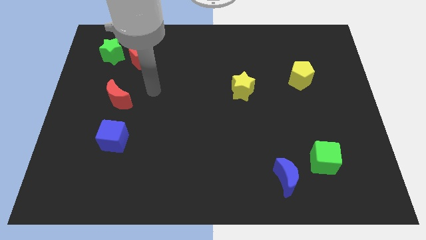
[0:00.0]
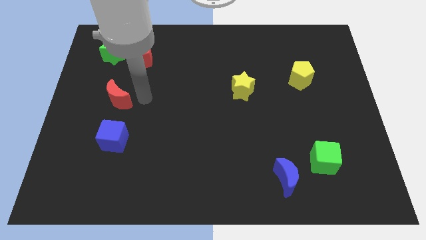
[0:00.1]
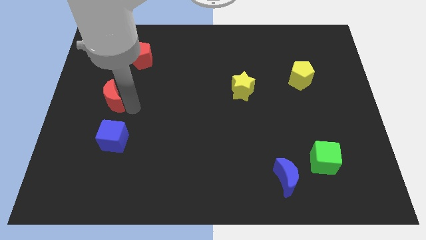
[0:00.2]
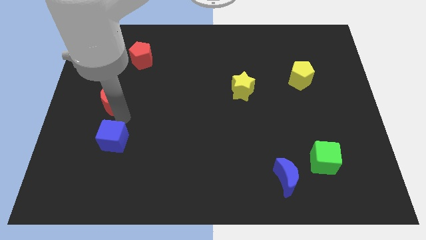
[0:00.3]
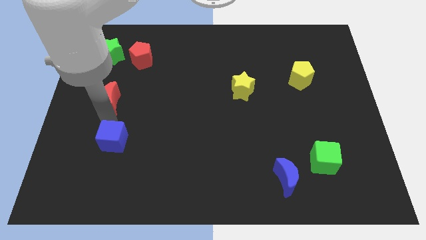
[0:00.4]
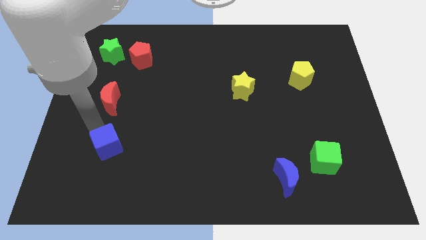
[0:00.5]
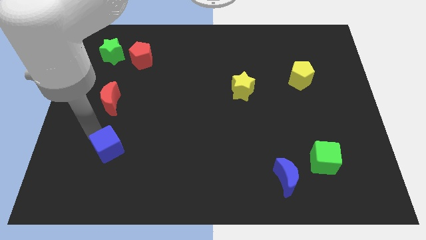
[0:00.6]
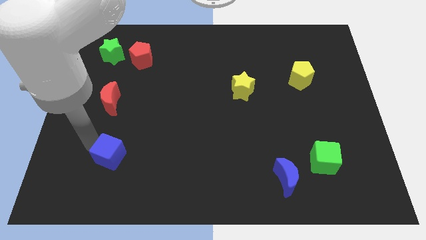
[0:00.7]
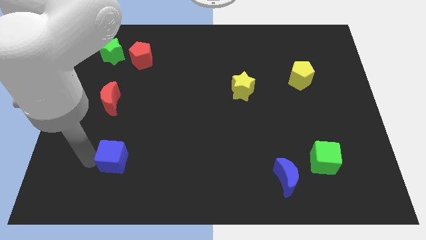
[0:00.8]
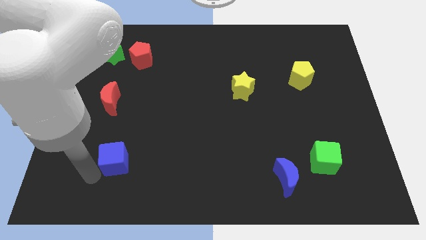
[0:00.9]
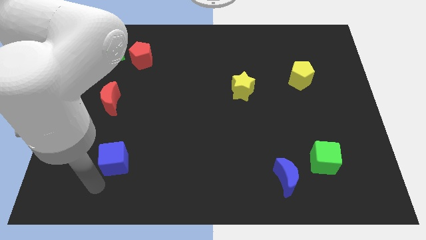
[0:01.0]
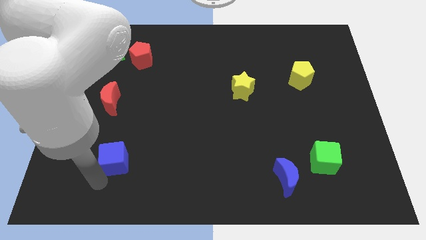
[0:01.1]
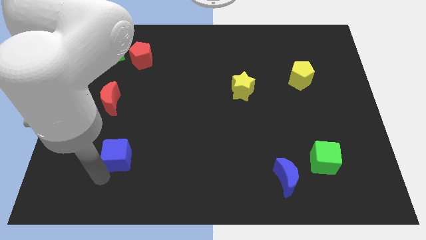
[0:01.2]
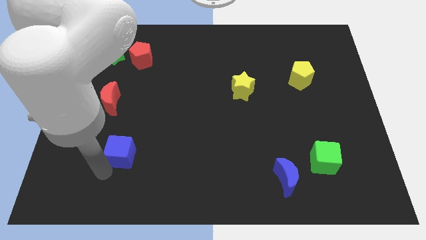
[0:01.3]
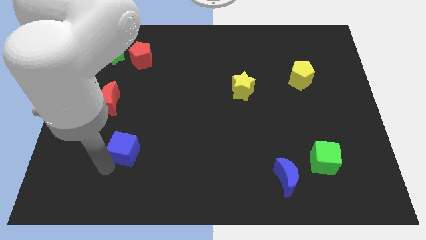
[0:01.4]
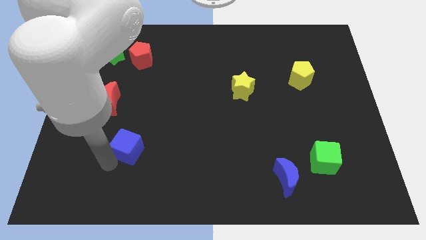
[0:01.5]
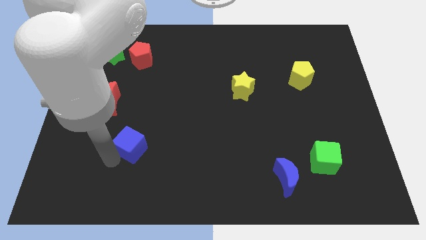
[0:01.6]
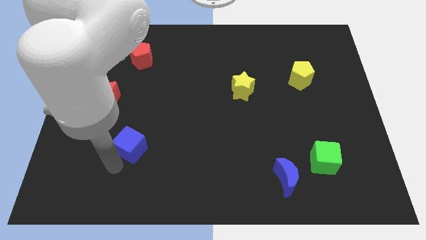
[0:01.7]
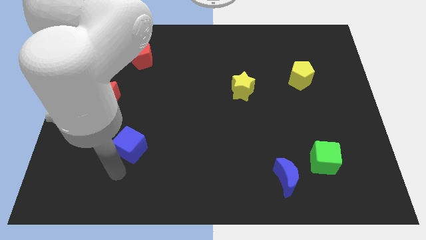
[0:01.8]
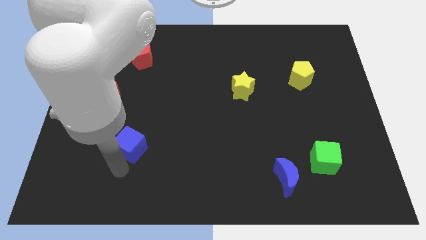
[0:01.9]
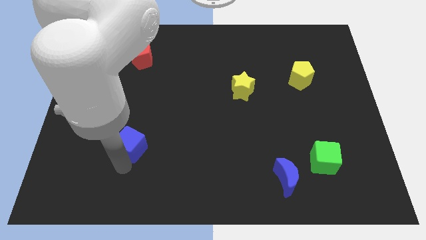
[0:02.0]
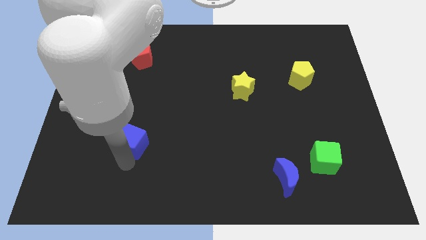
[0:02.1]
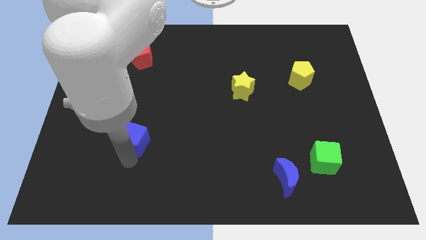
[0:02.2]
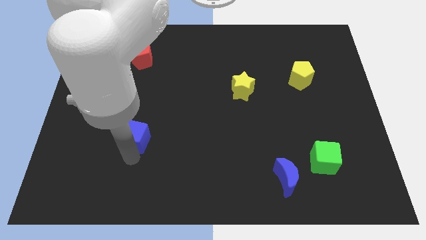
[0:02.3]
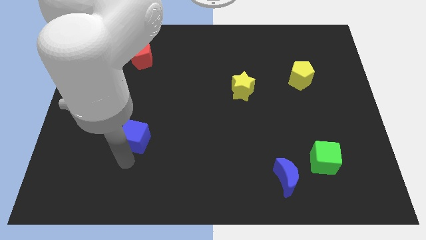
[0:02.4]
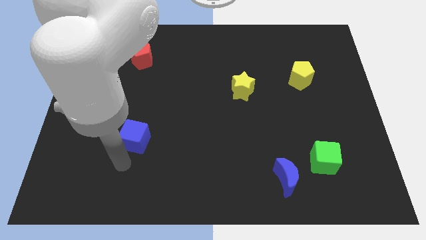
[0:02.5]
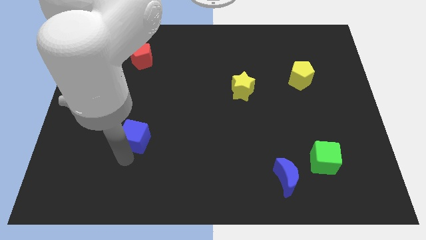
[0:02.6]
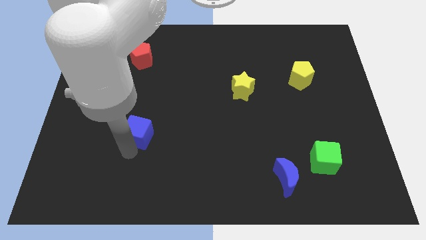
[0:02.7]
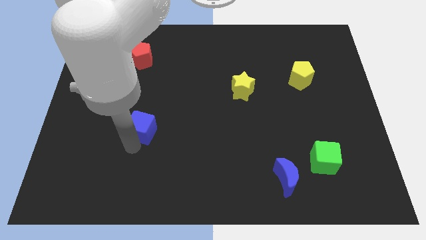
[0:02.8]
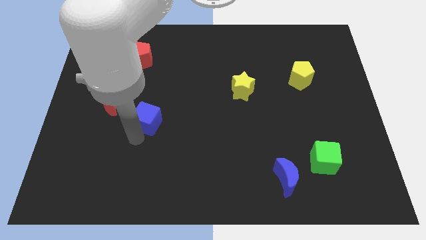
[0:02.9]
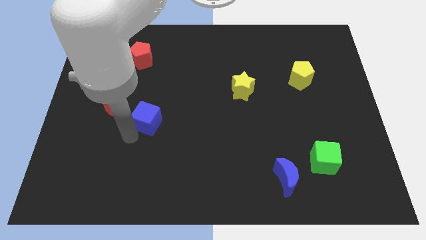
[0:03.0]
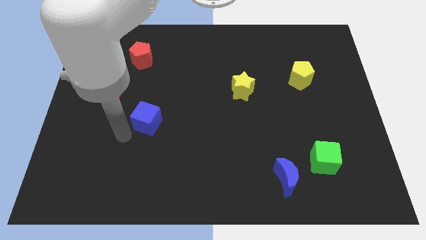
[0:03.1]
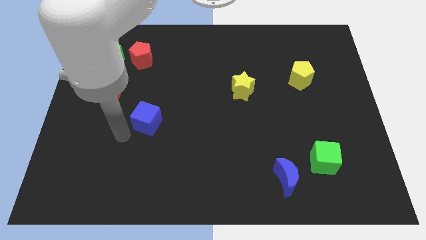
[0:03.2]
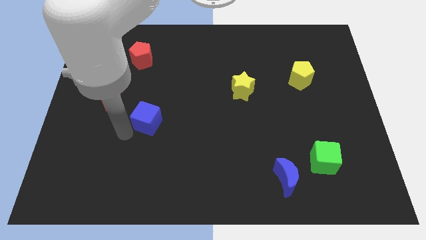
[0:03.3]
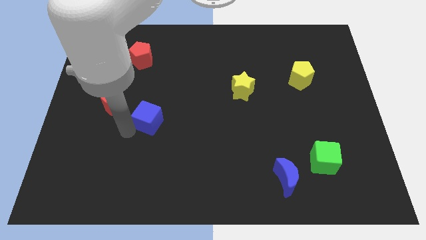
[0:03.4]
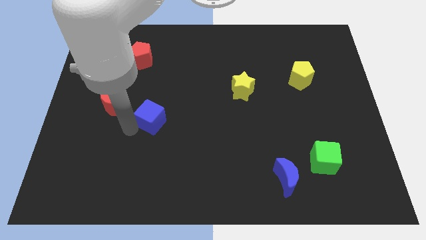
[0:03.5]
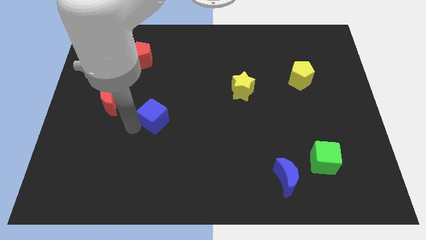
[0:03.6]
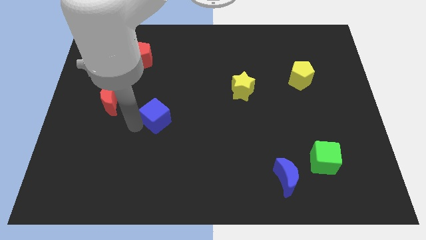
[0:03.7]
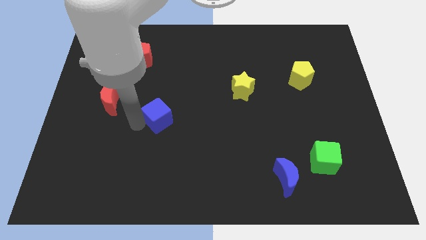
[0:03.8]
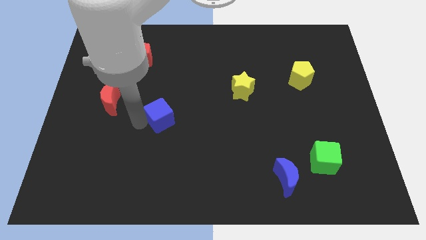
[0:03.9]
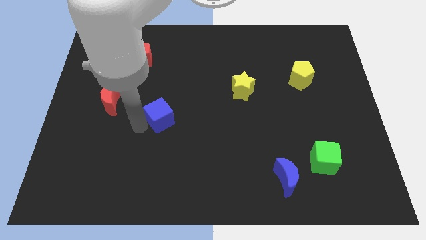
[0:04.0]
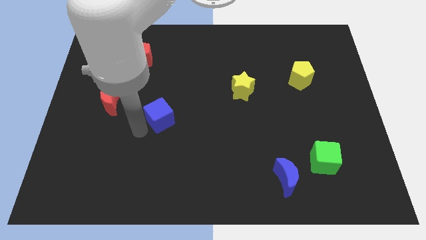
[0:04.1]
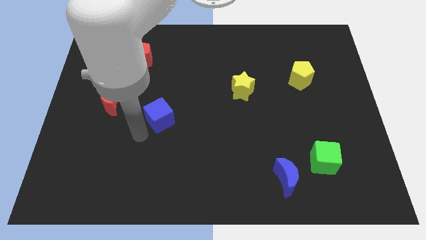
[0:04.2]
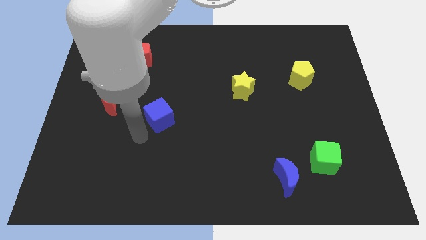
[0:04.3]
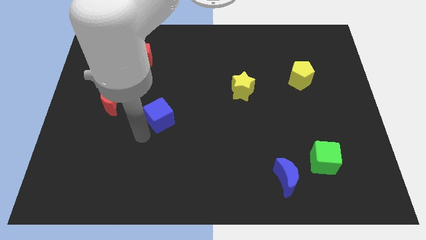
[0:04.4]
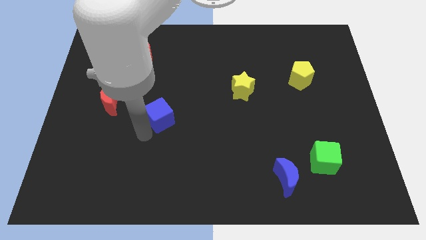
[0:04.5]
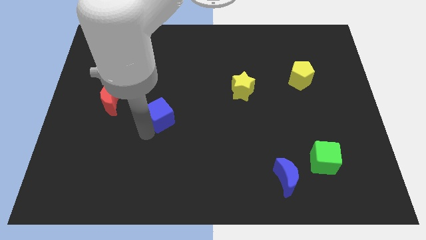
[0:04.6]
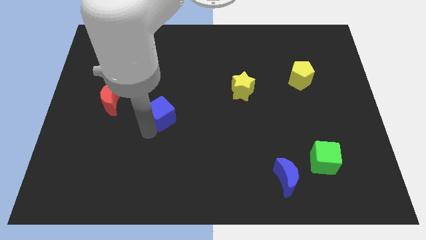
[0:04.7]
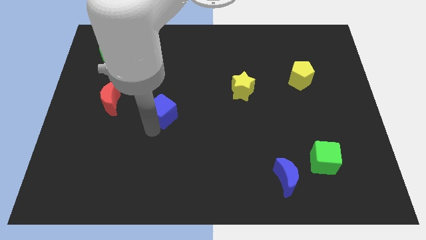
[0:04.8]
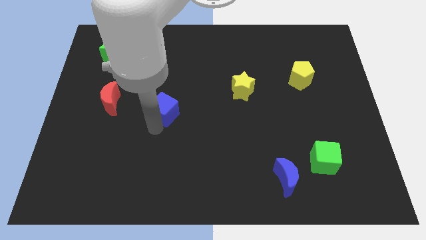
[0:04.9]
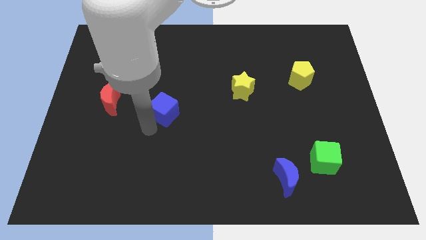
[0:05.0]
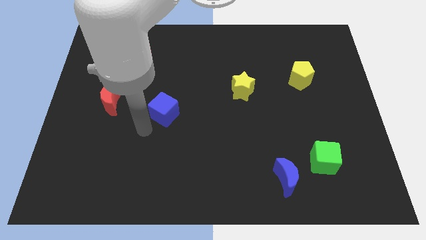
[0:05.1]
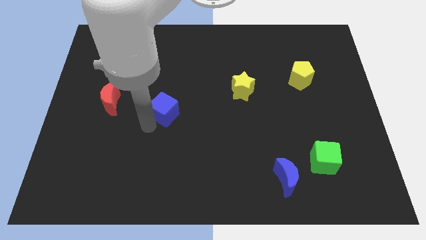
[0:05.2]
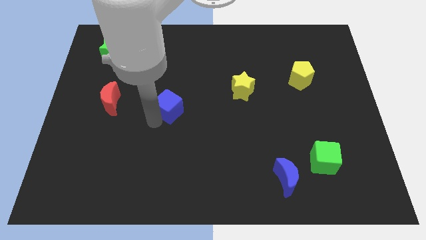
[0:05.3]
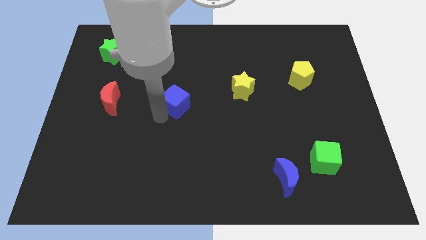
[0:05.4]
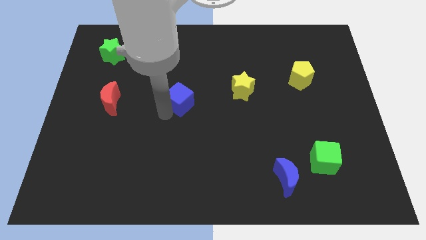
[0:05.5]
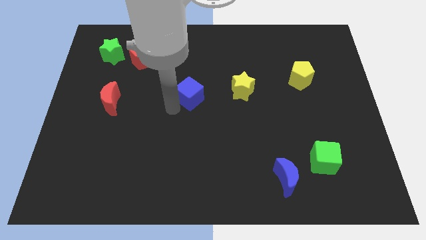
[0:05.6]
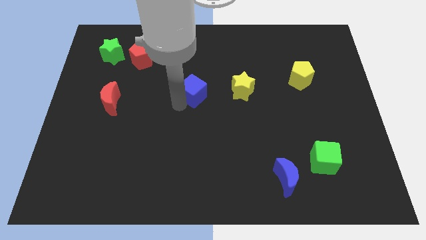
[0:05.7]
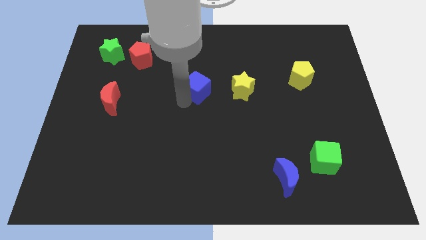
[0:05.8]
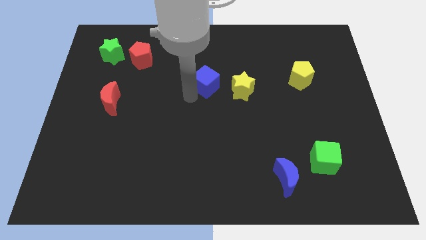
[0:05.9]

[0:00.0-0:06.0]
push the blue cube diagonally up and to the left of the yellow star

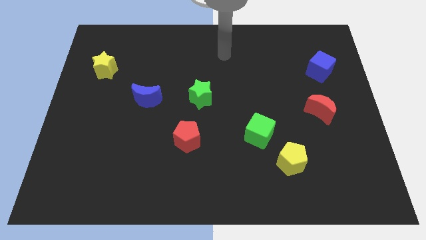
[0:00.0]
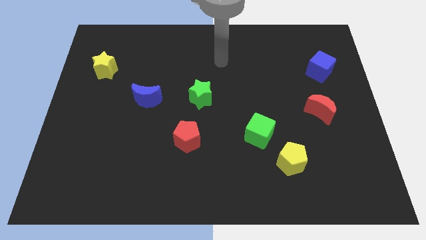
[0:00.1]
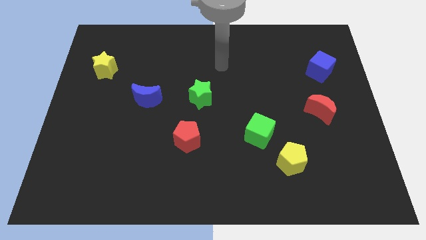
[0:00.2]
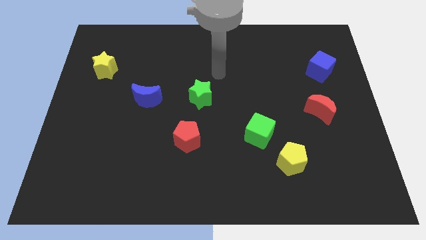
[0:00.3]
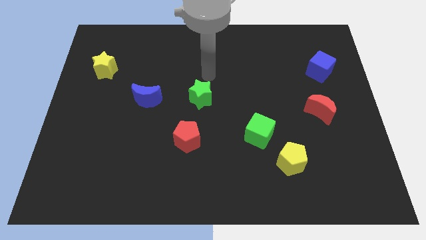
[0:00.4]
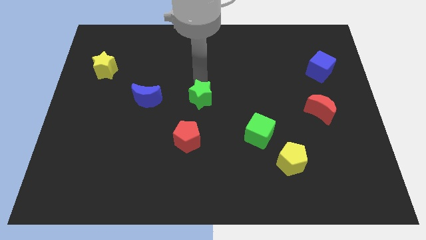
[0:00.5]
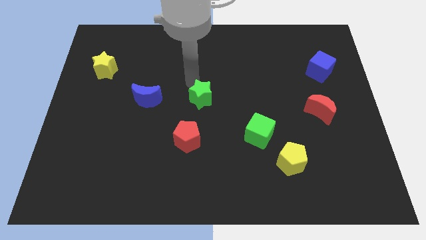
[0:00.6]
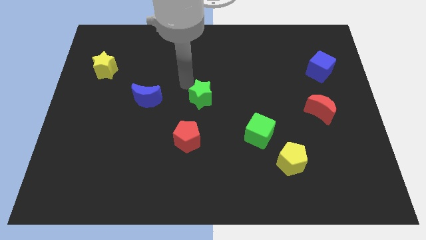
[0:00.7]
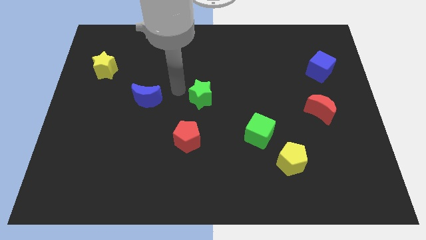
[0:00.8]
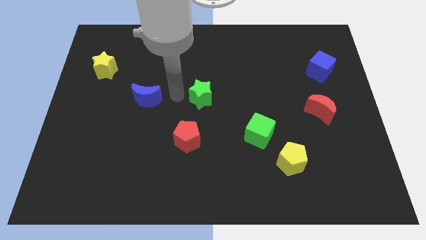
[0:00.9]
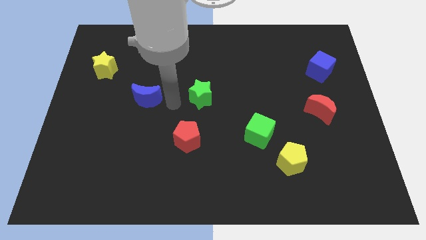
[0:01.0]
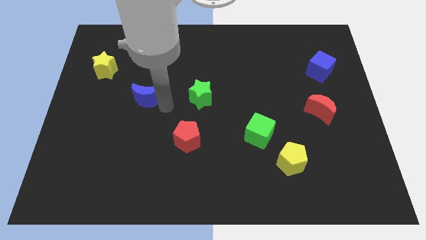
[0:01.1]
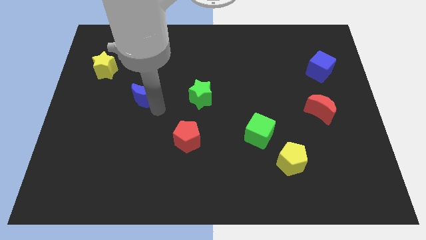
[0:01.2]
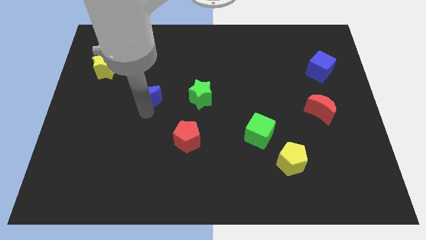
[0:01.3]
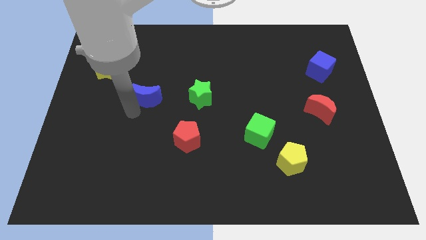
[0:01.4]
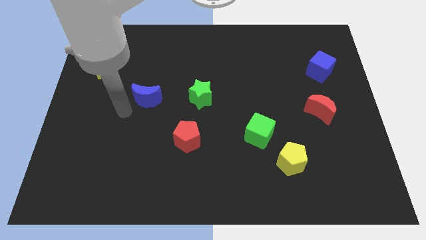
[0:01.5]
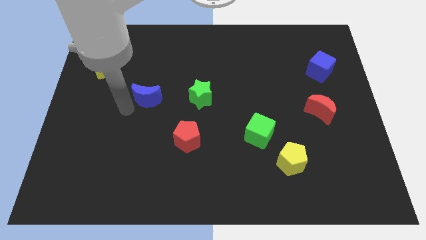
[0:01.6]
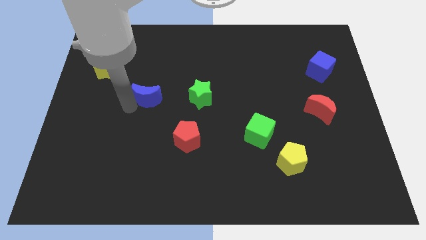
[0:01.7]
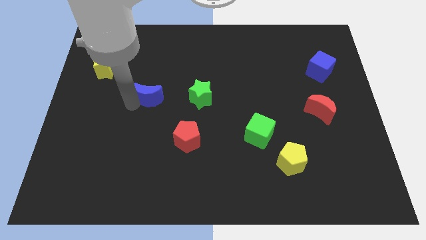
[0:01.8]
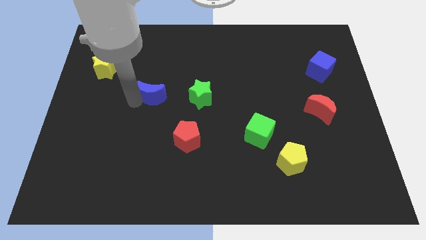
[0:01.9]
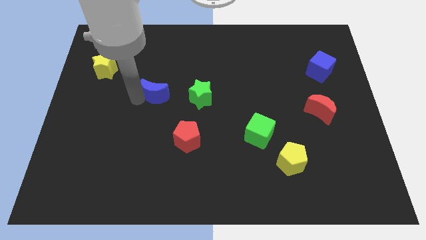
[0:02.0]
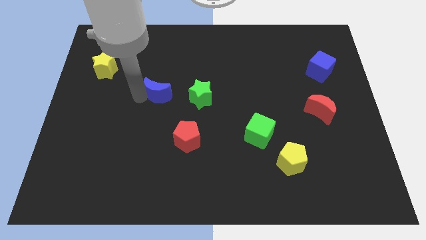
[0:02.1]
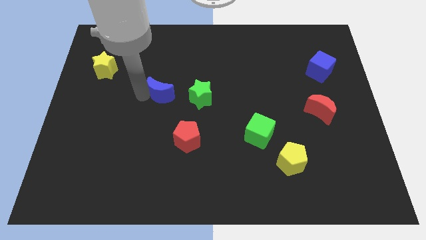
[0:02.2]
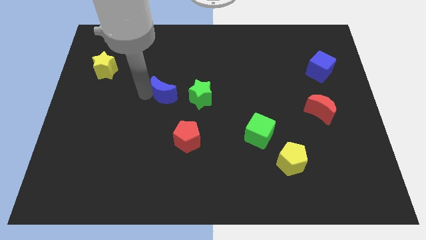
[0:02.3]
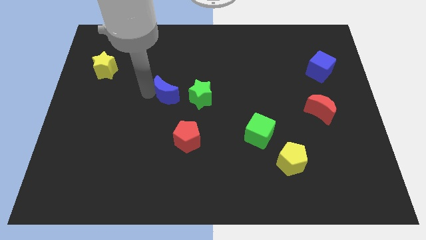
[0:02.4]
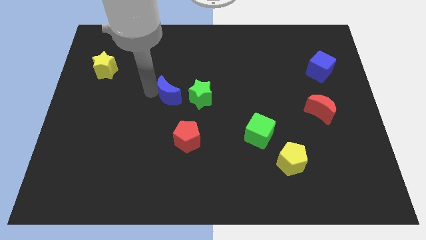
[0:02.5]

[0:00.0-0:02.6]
slide the blue moon to the top left of the green star
